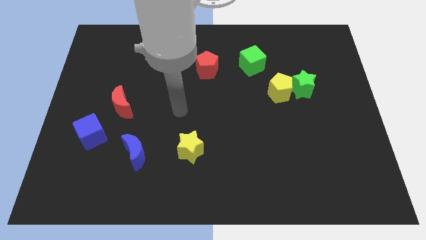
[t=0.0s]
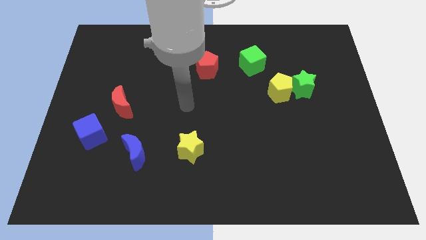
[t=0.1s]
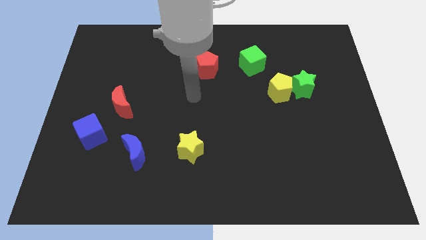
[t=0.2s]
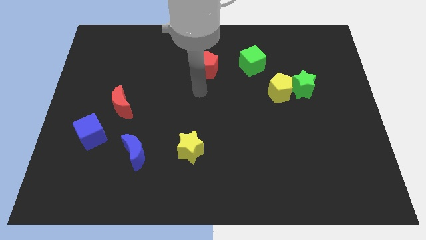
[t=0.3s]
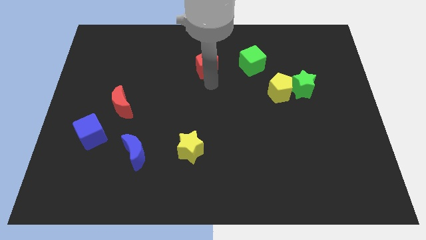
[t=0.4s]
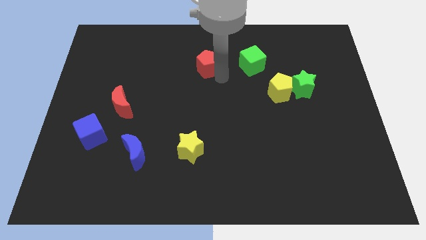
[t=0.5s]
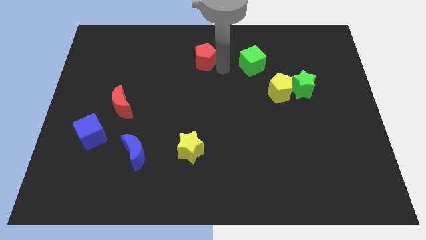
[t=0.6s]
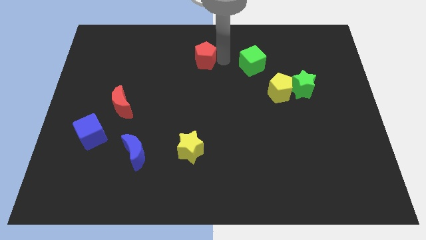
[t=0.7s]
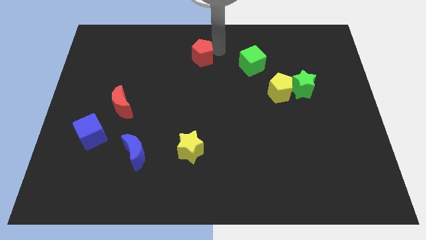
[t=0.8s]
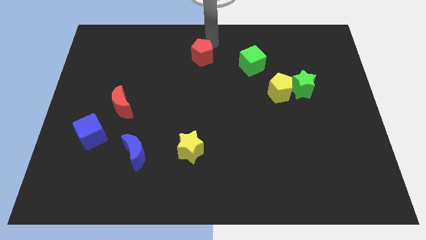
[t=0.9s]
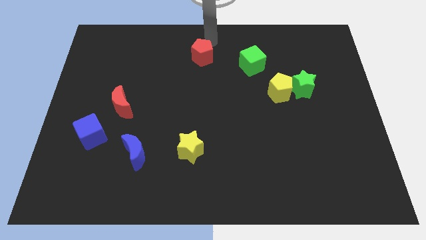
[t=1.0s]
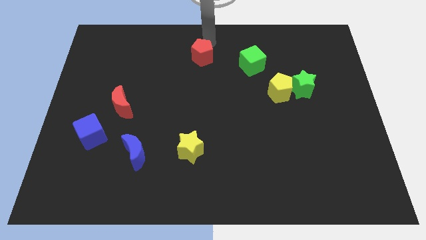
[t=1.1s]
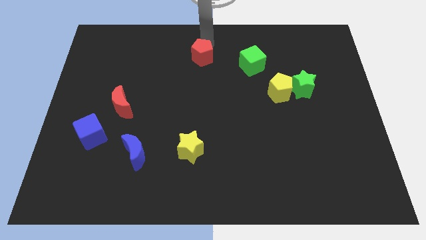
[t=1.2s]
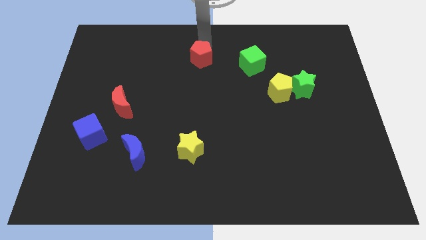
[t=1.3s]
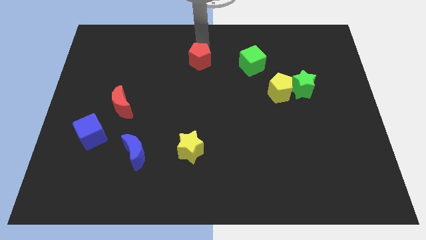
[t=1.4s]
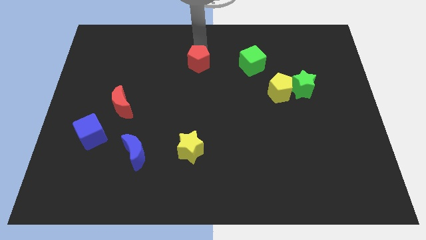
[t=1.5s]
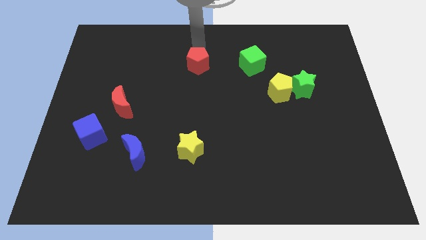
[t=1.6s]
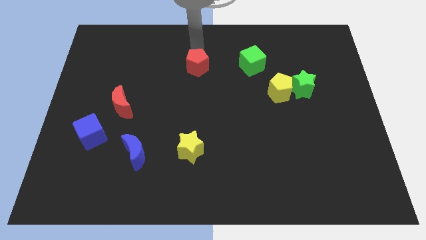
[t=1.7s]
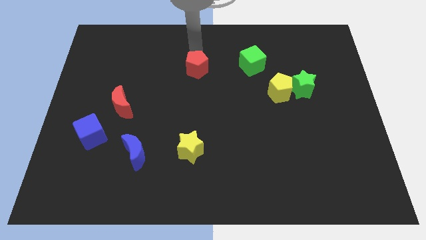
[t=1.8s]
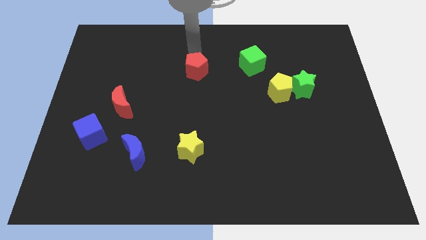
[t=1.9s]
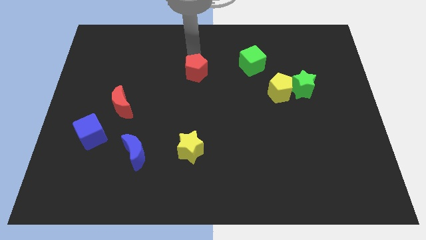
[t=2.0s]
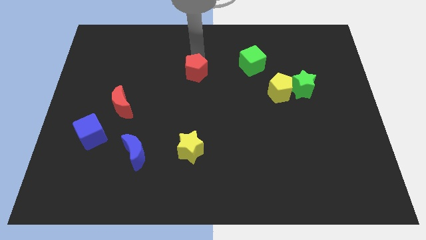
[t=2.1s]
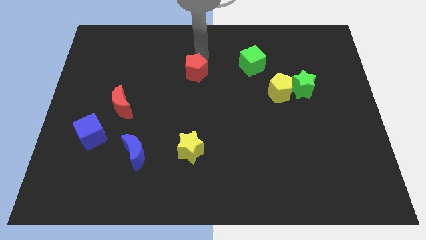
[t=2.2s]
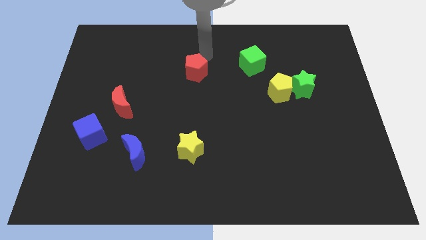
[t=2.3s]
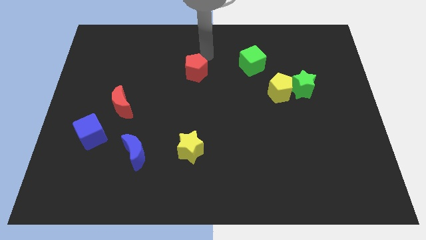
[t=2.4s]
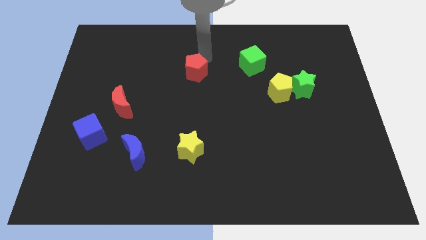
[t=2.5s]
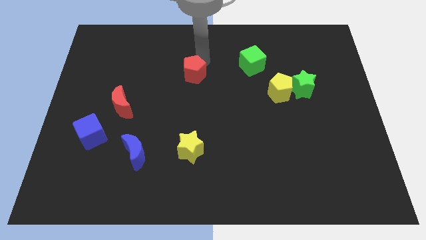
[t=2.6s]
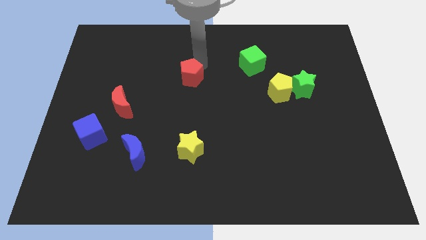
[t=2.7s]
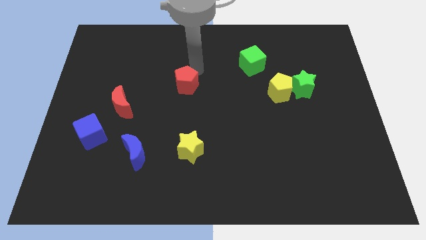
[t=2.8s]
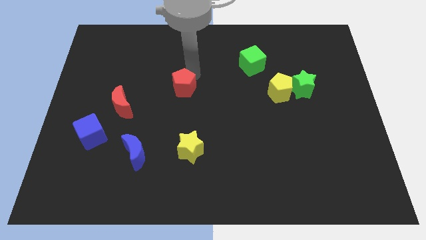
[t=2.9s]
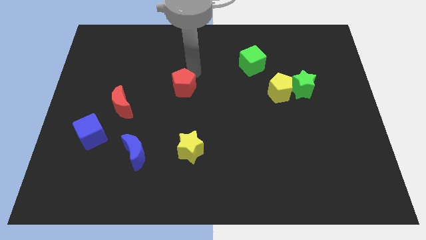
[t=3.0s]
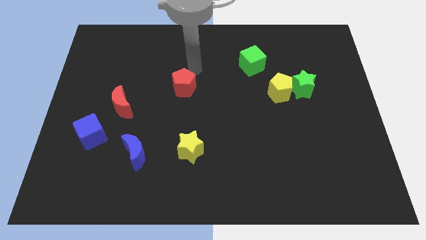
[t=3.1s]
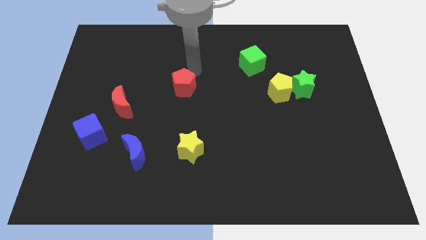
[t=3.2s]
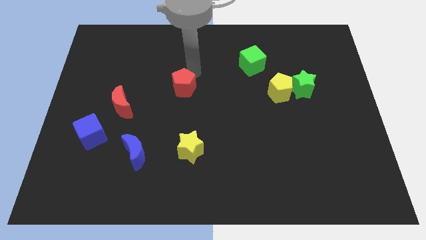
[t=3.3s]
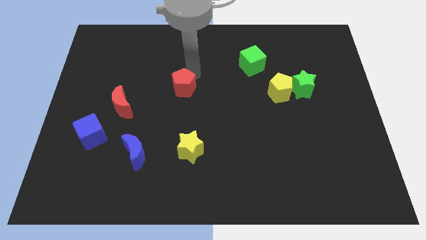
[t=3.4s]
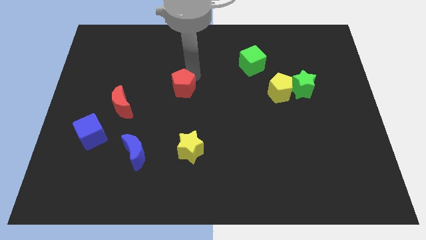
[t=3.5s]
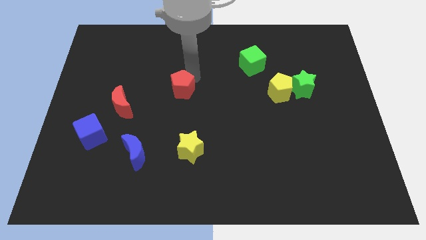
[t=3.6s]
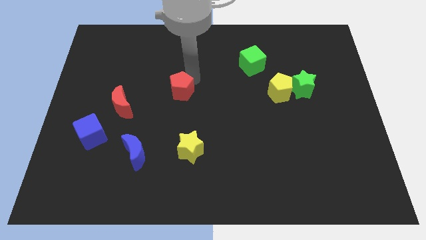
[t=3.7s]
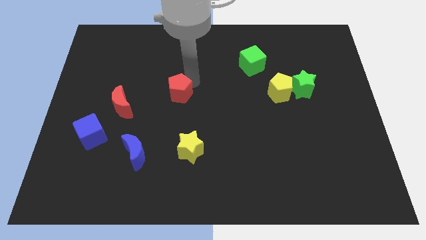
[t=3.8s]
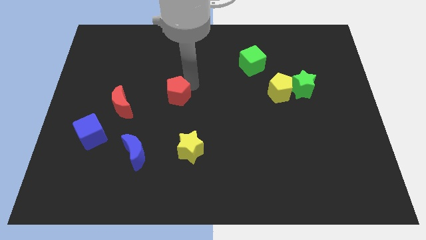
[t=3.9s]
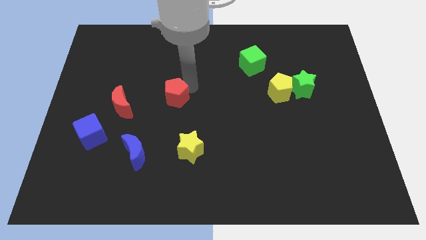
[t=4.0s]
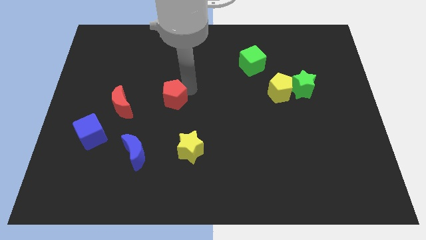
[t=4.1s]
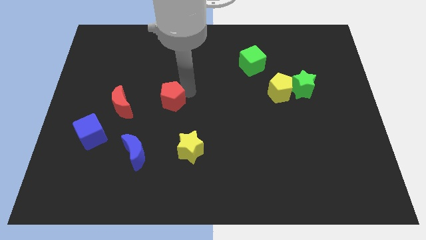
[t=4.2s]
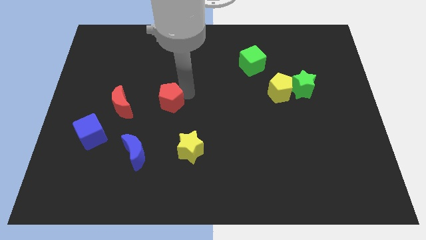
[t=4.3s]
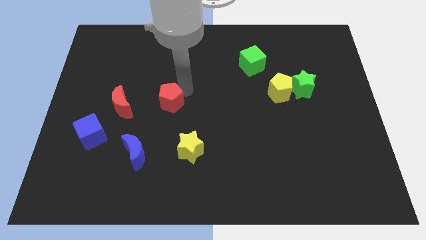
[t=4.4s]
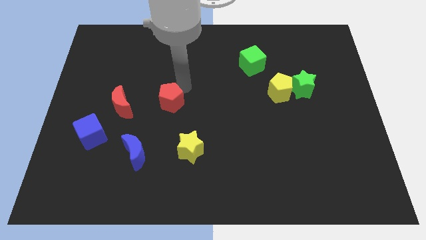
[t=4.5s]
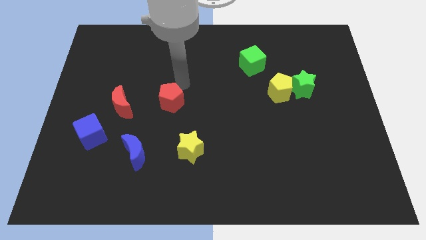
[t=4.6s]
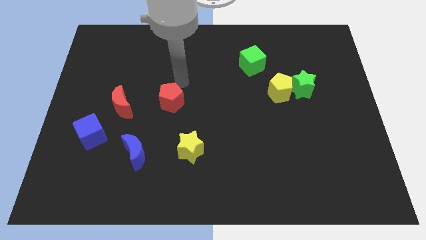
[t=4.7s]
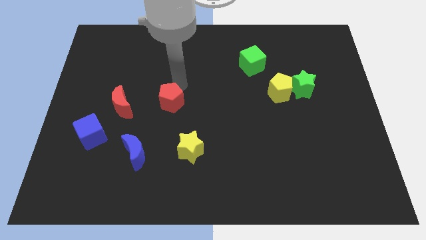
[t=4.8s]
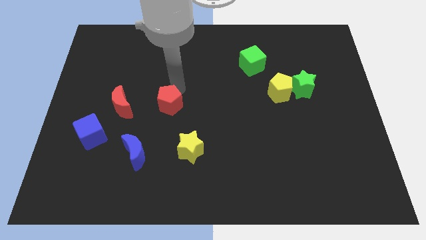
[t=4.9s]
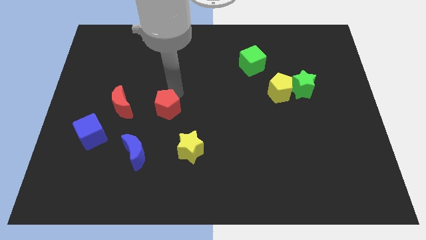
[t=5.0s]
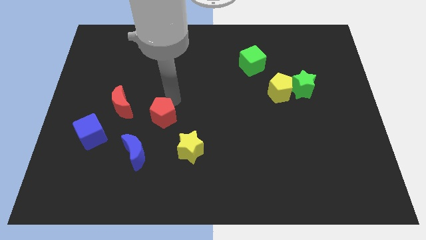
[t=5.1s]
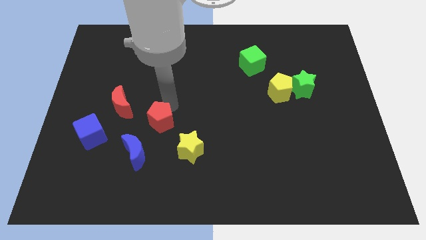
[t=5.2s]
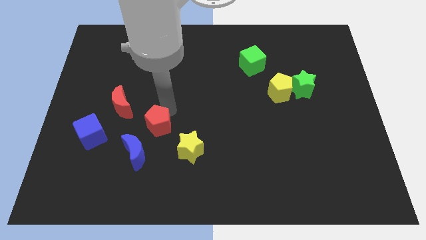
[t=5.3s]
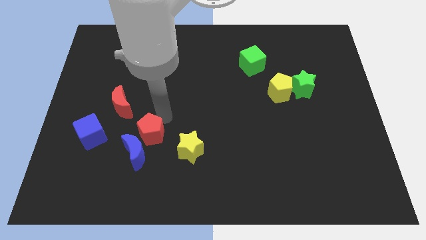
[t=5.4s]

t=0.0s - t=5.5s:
push the red pentagon to the blue moon
